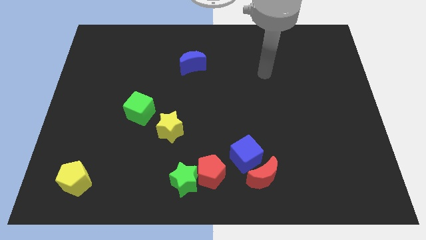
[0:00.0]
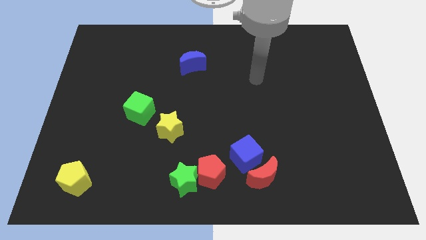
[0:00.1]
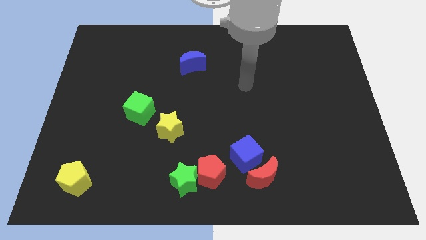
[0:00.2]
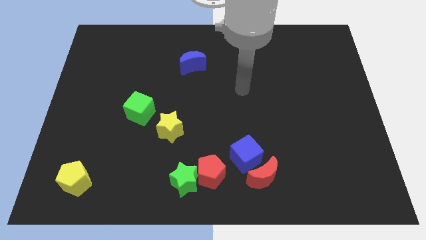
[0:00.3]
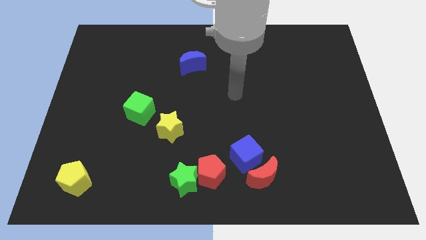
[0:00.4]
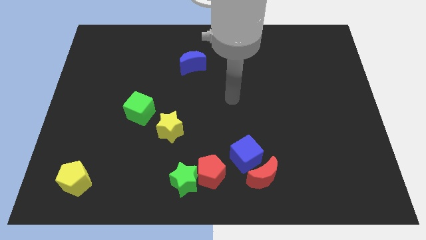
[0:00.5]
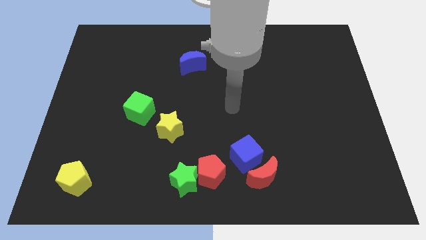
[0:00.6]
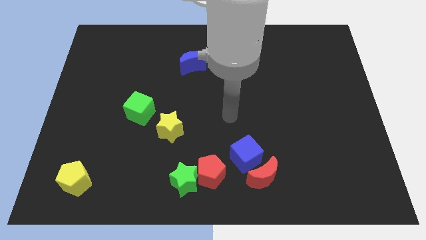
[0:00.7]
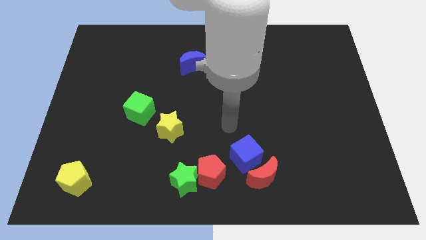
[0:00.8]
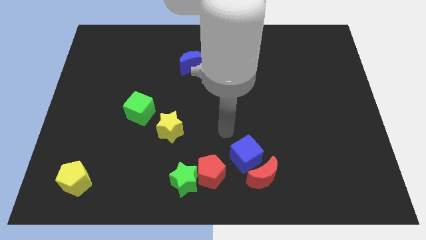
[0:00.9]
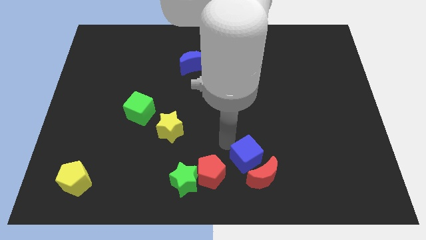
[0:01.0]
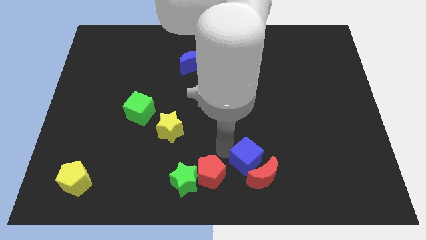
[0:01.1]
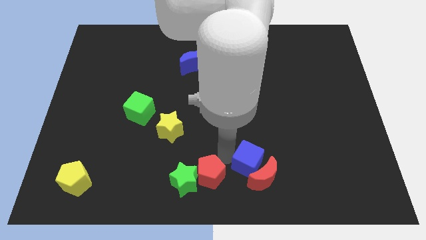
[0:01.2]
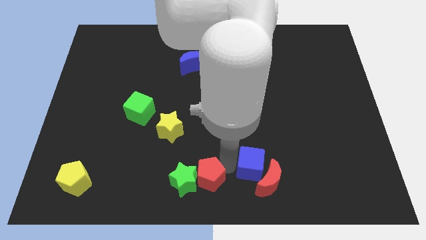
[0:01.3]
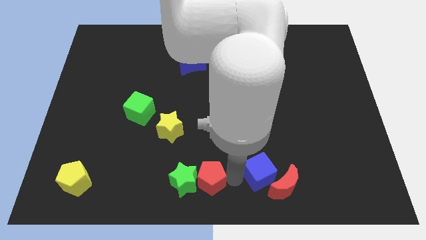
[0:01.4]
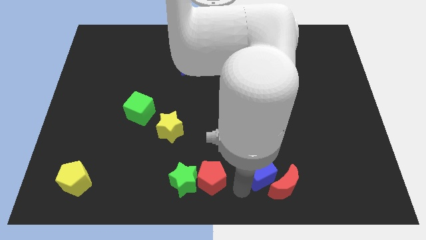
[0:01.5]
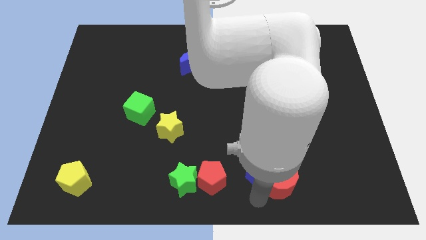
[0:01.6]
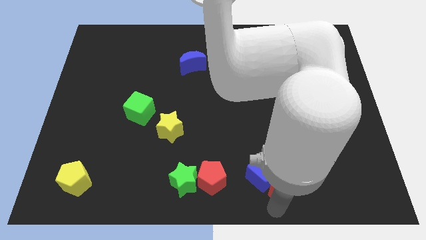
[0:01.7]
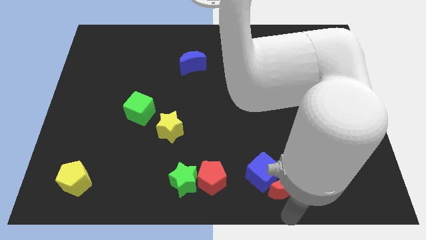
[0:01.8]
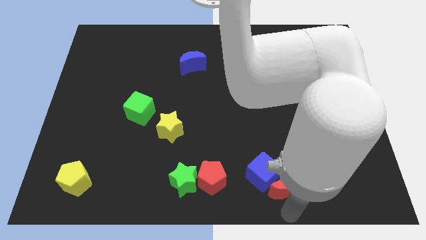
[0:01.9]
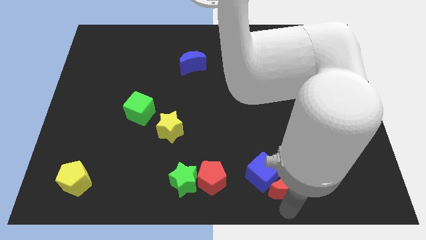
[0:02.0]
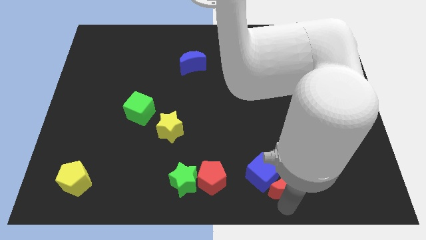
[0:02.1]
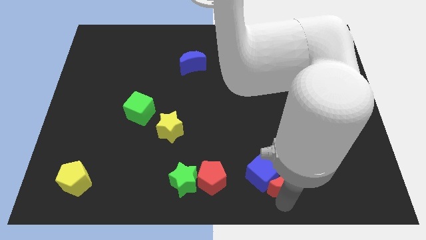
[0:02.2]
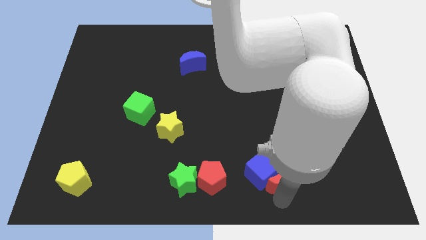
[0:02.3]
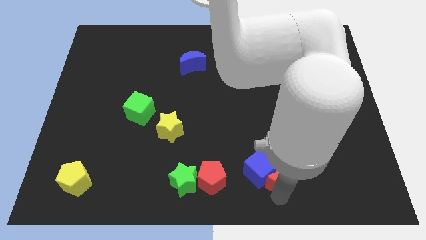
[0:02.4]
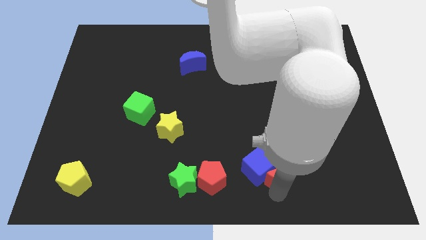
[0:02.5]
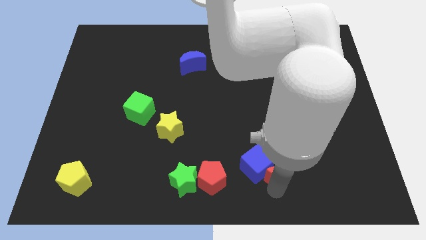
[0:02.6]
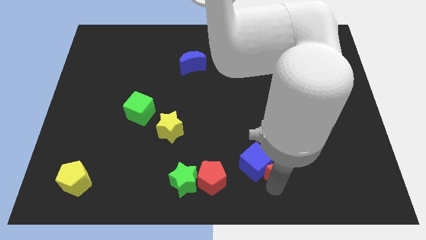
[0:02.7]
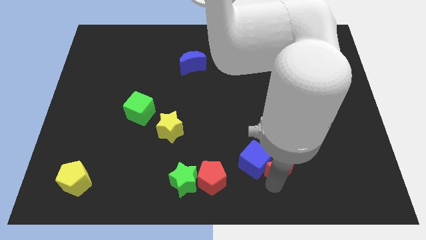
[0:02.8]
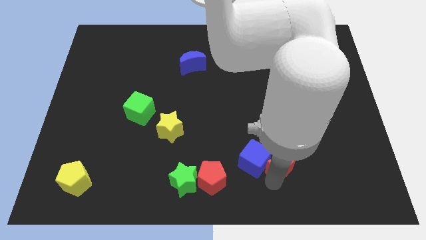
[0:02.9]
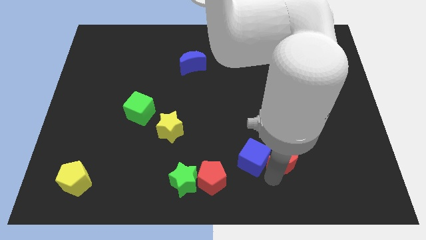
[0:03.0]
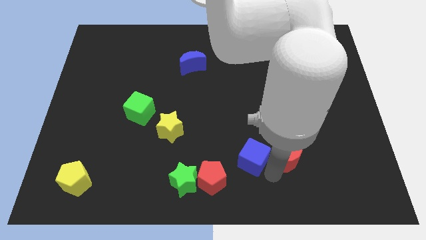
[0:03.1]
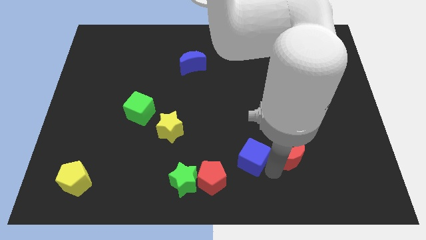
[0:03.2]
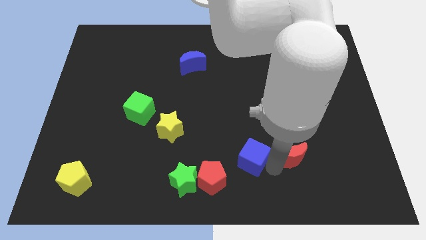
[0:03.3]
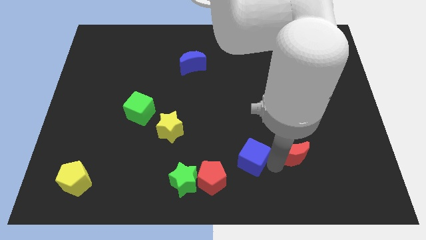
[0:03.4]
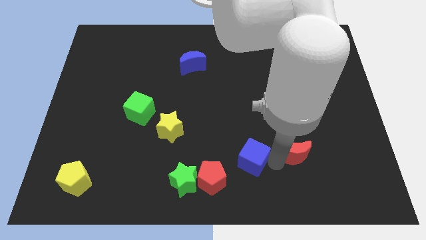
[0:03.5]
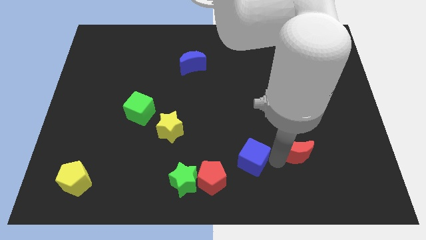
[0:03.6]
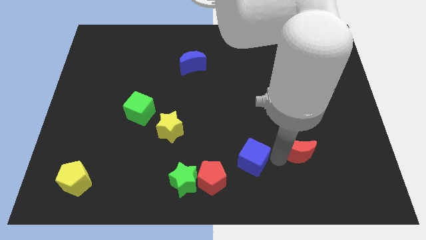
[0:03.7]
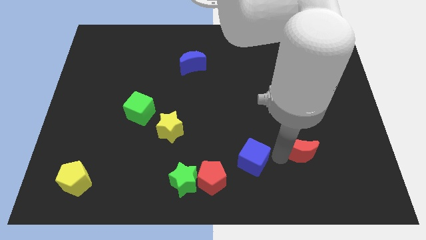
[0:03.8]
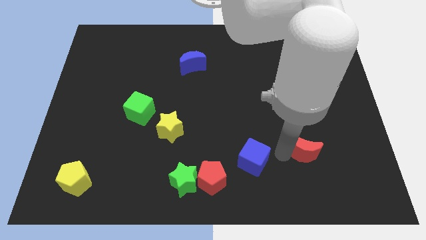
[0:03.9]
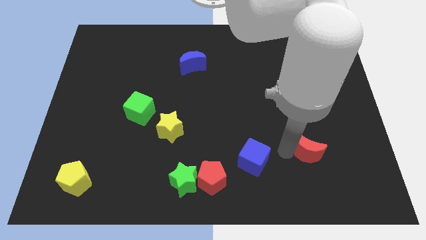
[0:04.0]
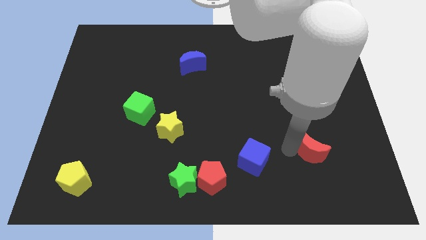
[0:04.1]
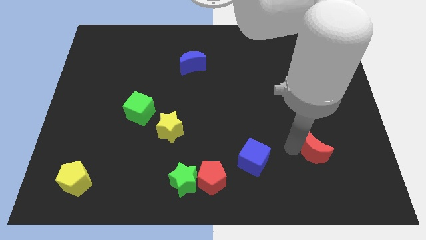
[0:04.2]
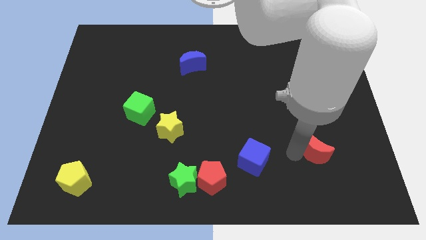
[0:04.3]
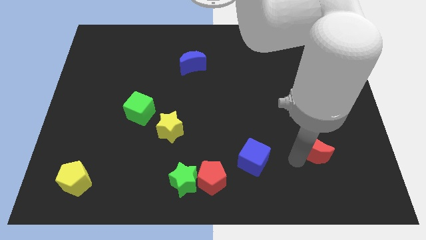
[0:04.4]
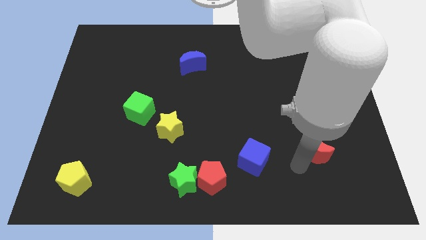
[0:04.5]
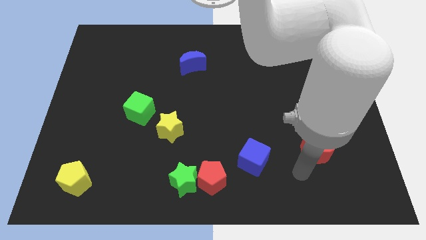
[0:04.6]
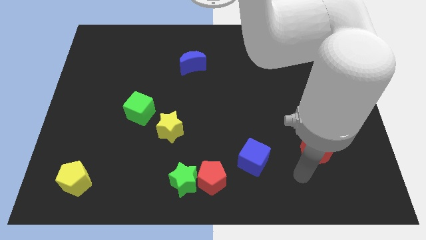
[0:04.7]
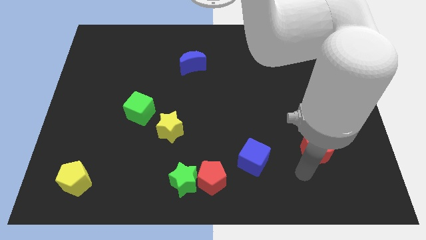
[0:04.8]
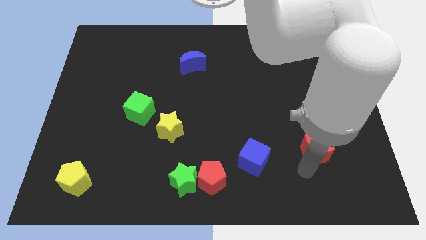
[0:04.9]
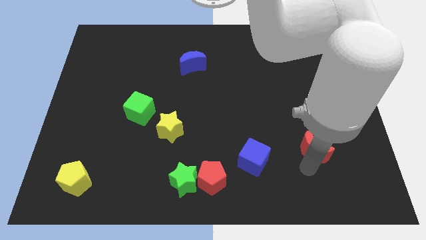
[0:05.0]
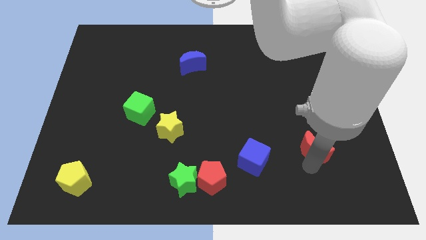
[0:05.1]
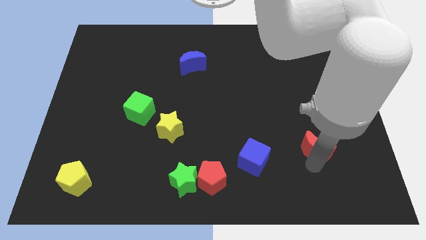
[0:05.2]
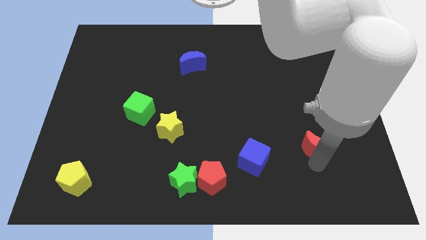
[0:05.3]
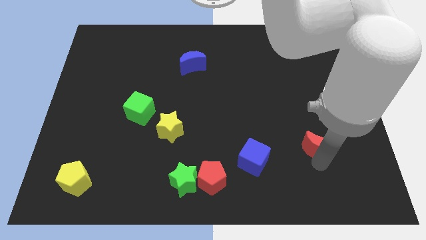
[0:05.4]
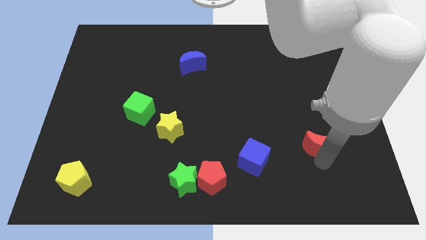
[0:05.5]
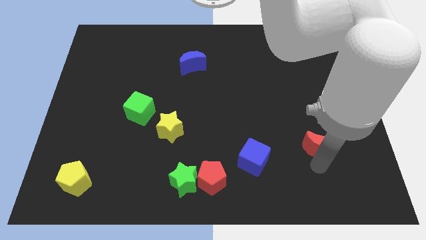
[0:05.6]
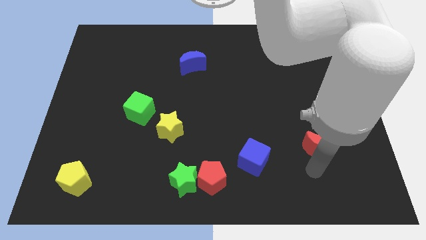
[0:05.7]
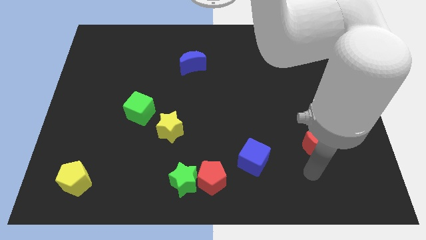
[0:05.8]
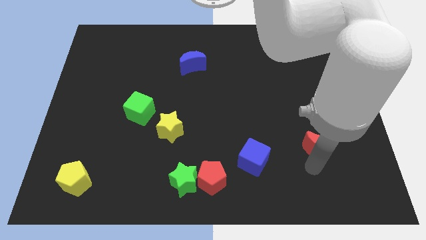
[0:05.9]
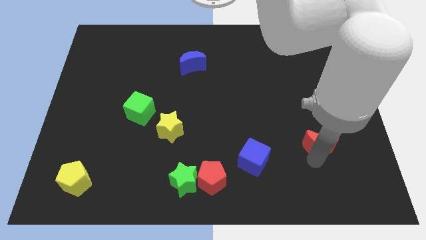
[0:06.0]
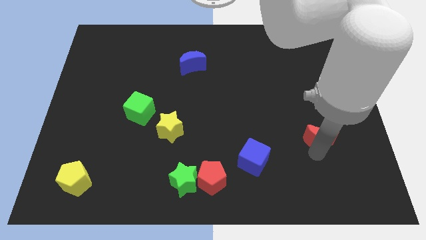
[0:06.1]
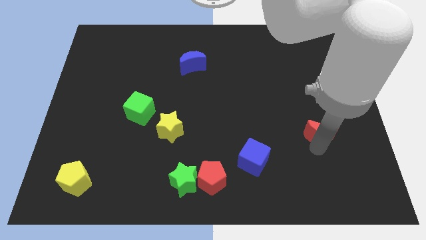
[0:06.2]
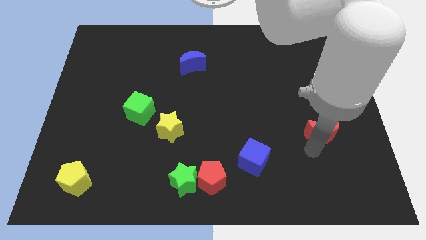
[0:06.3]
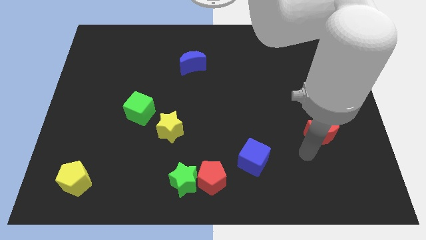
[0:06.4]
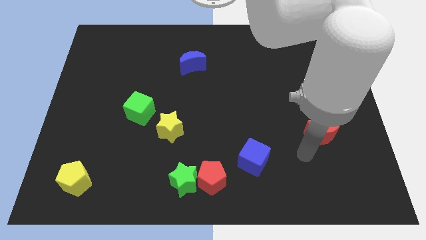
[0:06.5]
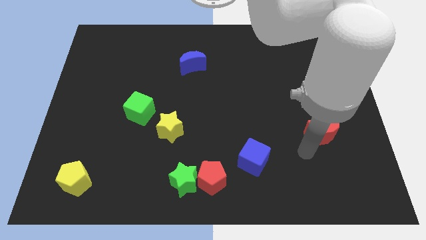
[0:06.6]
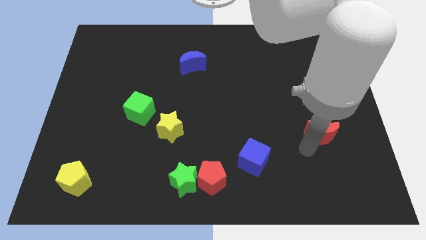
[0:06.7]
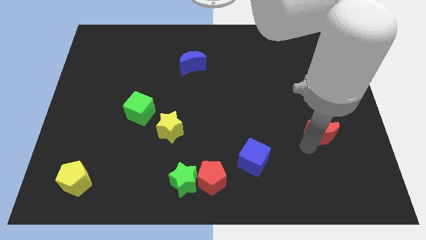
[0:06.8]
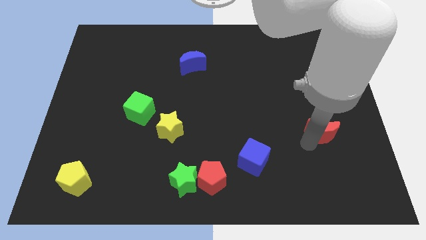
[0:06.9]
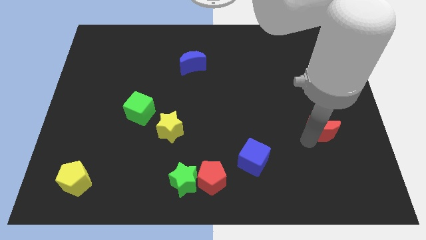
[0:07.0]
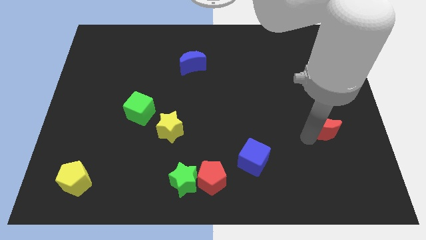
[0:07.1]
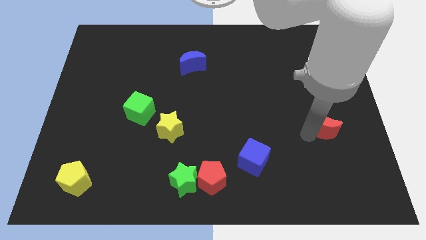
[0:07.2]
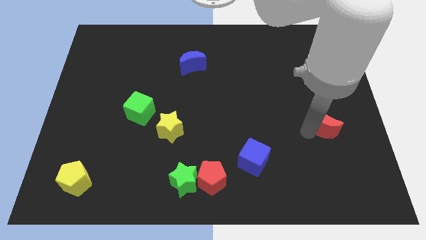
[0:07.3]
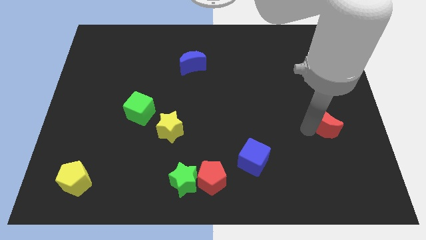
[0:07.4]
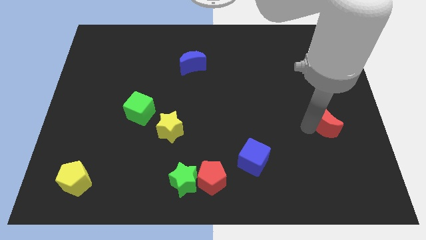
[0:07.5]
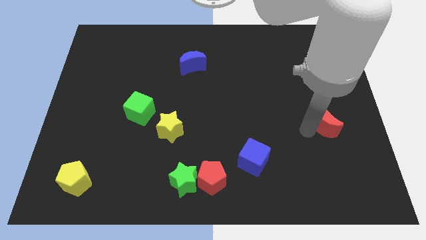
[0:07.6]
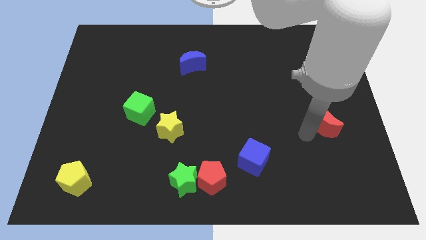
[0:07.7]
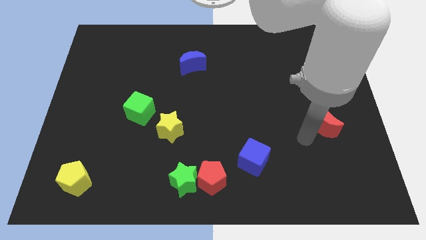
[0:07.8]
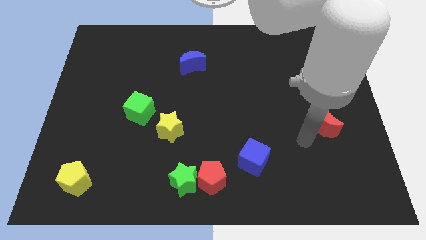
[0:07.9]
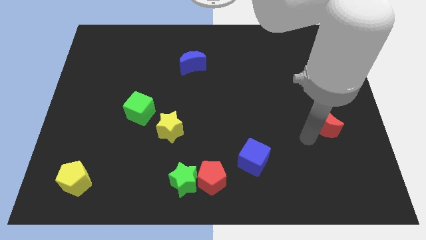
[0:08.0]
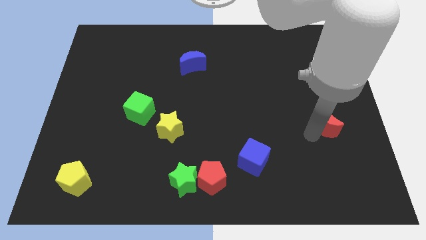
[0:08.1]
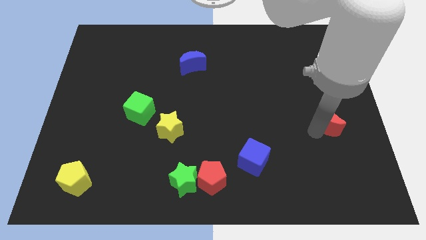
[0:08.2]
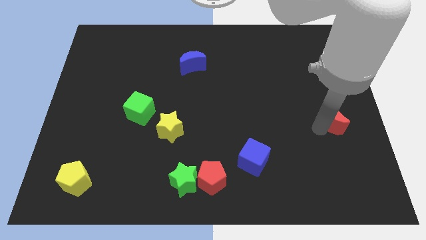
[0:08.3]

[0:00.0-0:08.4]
move the red moon to the right side
